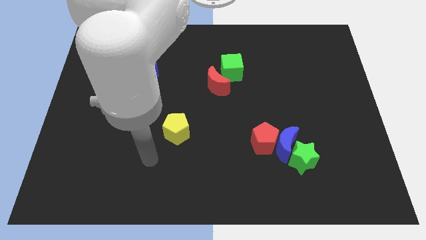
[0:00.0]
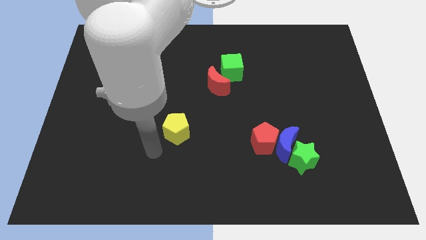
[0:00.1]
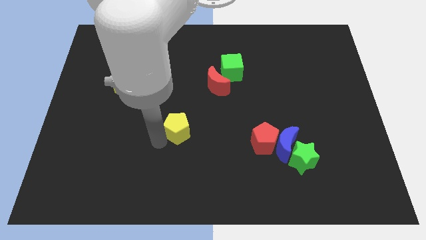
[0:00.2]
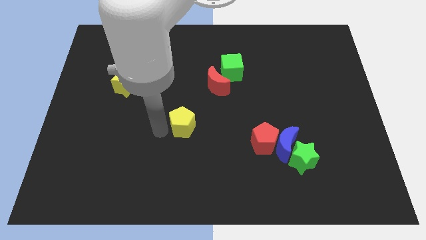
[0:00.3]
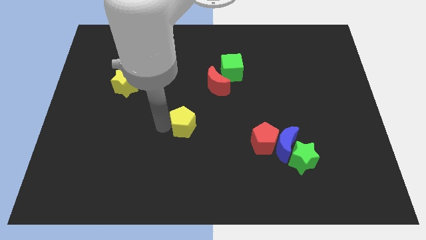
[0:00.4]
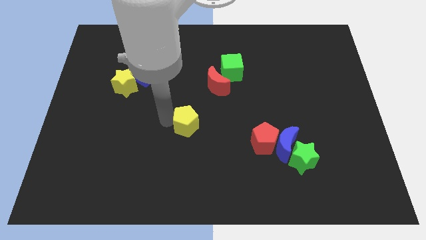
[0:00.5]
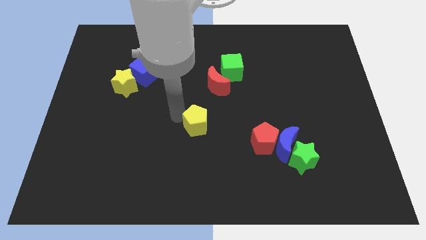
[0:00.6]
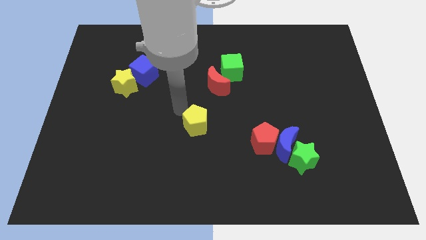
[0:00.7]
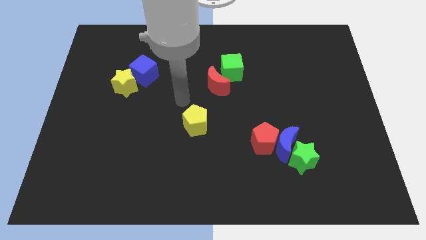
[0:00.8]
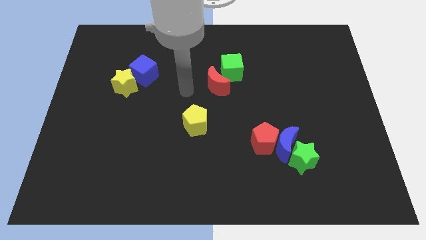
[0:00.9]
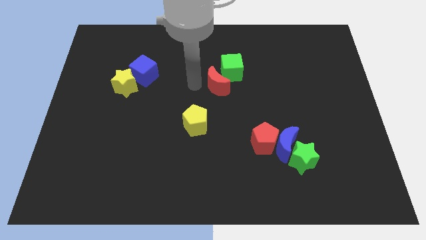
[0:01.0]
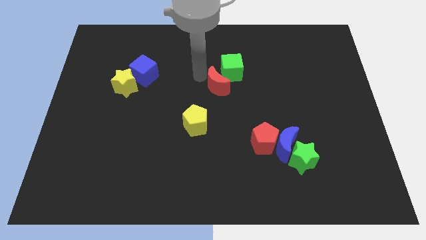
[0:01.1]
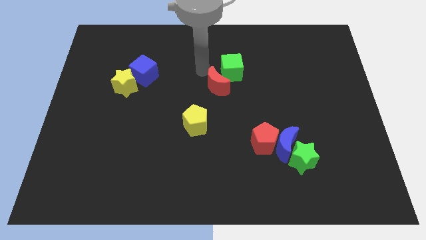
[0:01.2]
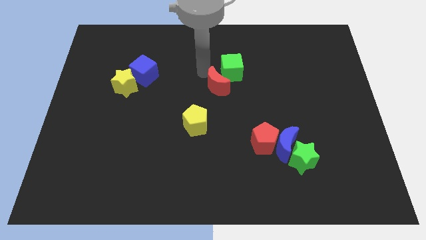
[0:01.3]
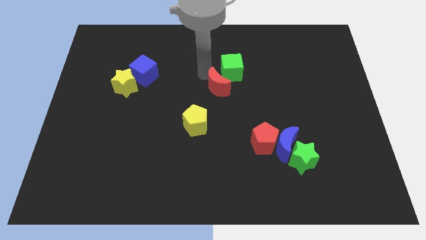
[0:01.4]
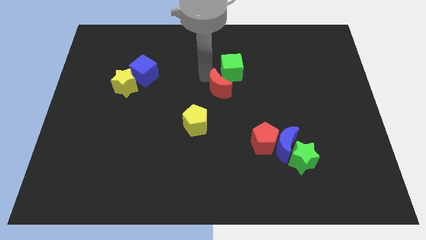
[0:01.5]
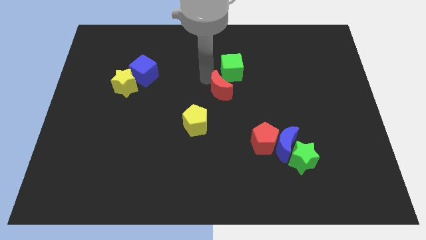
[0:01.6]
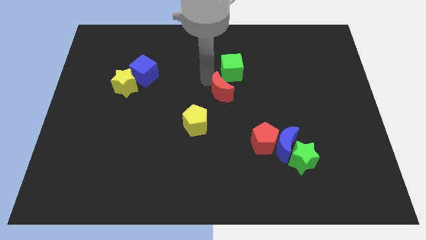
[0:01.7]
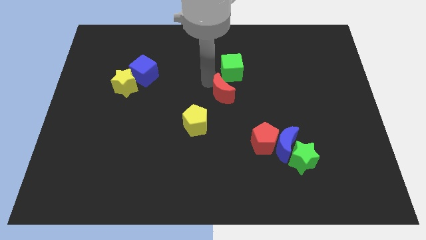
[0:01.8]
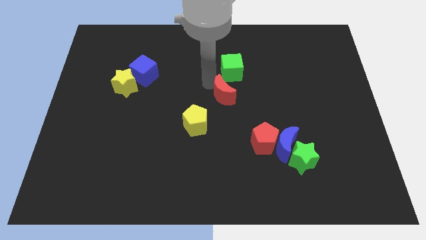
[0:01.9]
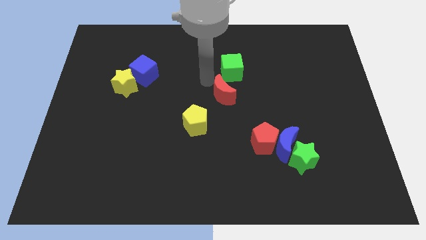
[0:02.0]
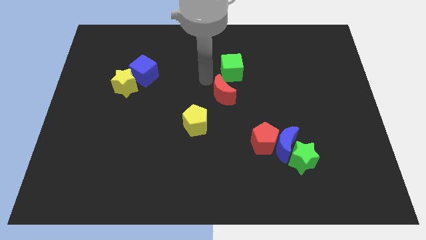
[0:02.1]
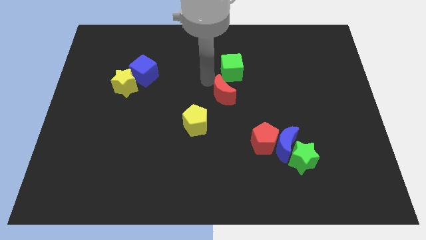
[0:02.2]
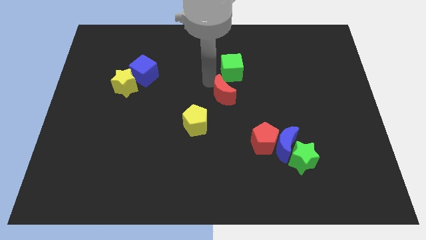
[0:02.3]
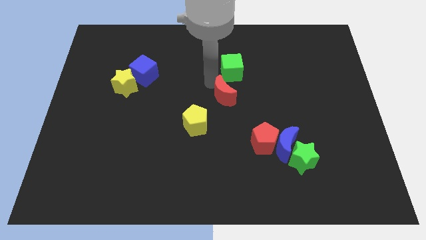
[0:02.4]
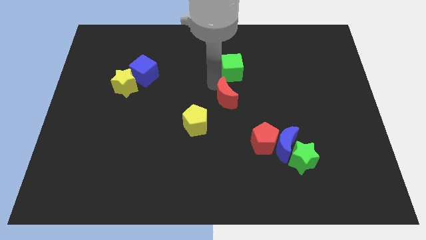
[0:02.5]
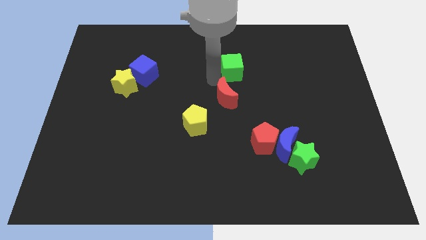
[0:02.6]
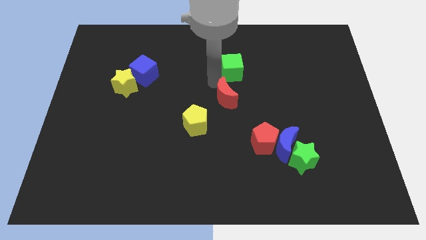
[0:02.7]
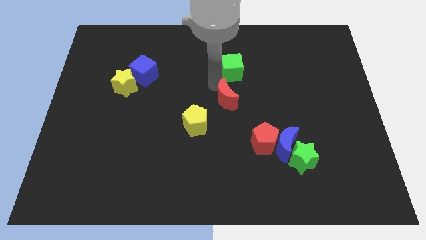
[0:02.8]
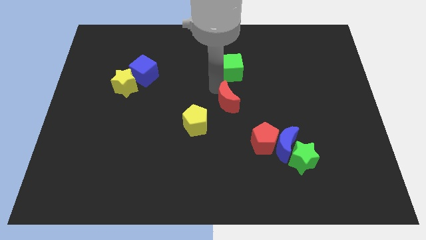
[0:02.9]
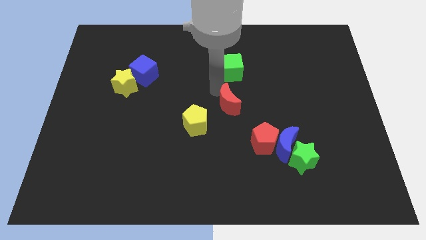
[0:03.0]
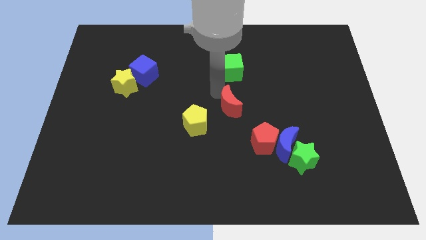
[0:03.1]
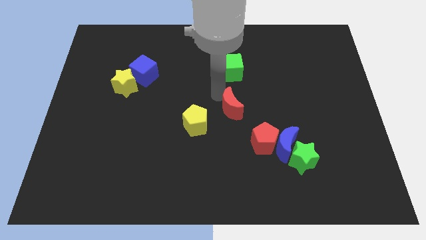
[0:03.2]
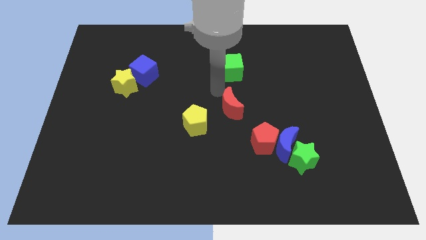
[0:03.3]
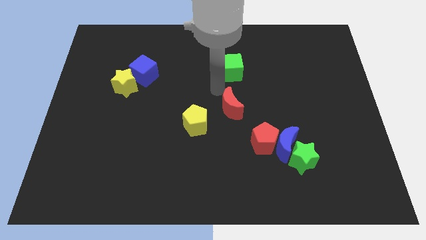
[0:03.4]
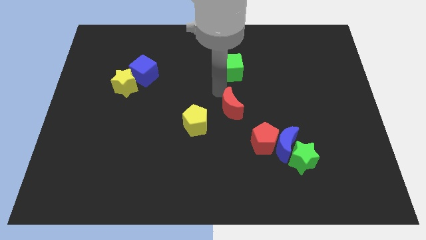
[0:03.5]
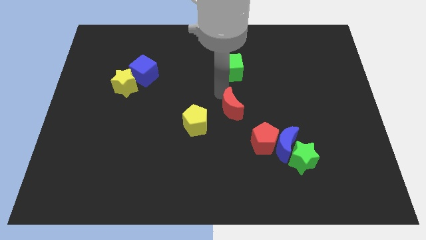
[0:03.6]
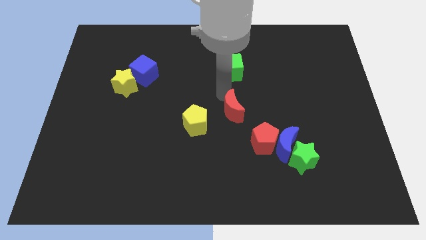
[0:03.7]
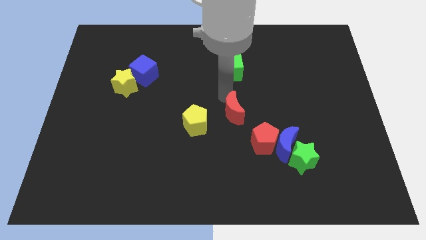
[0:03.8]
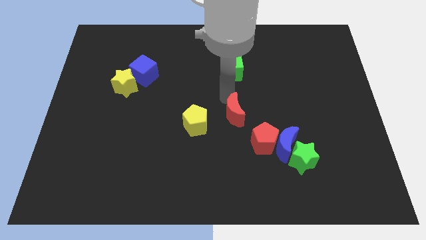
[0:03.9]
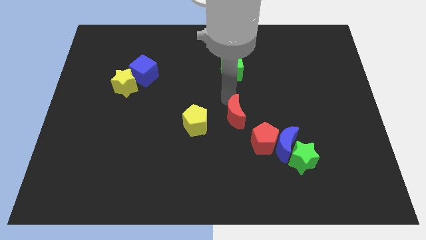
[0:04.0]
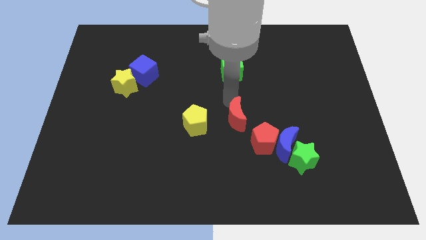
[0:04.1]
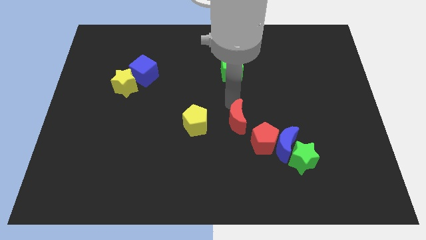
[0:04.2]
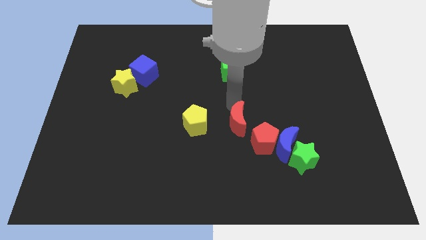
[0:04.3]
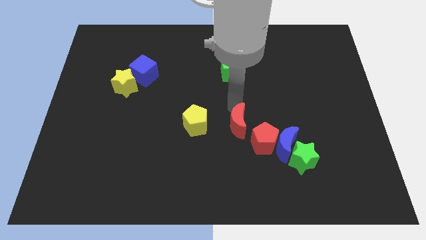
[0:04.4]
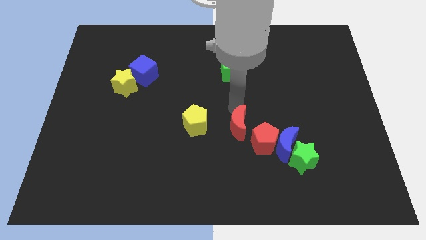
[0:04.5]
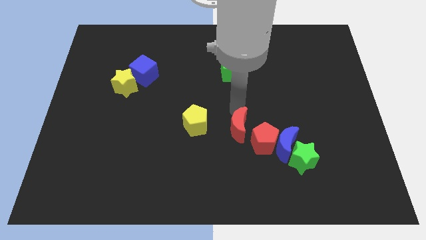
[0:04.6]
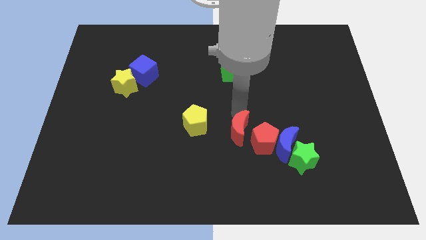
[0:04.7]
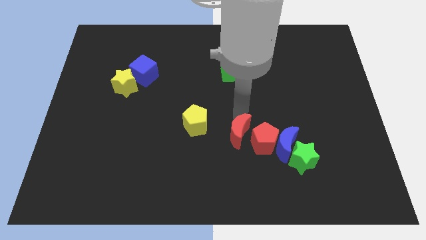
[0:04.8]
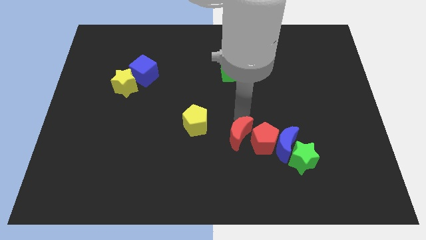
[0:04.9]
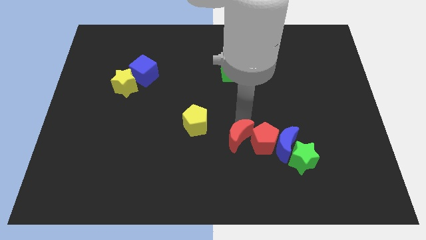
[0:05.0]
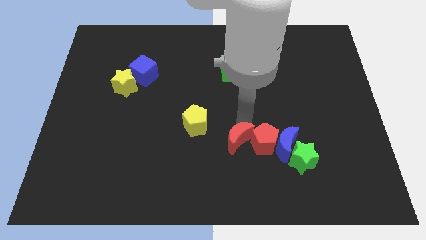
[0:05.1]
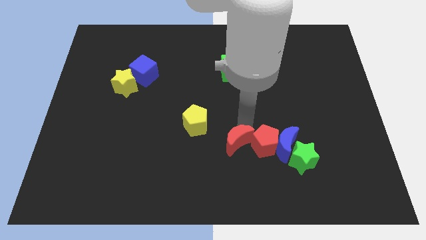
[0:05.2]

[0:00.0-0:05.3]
slide the red moon just left of the green star

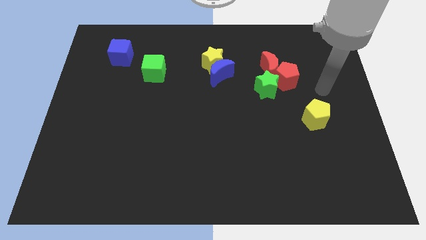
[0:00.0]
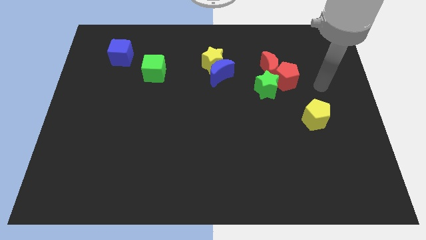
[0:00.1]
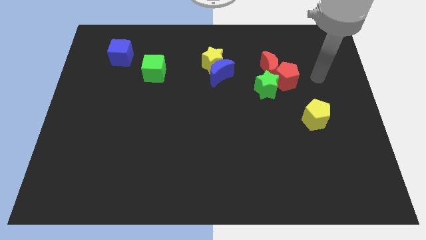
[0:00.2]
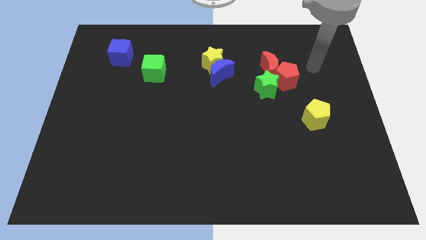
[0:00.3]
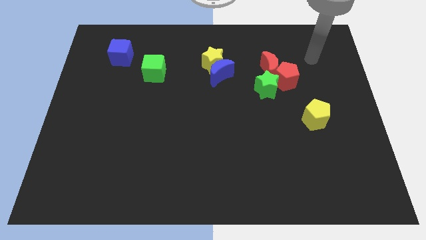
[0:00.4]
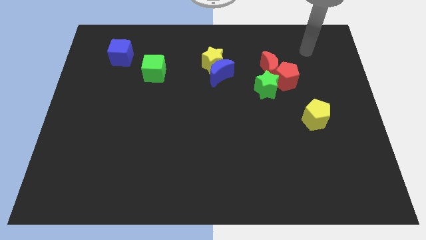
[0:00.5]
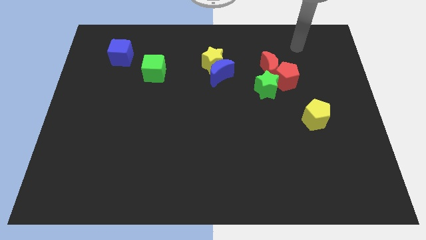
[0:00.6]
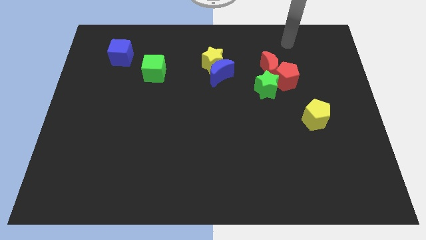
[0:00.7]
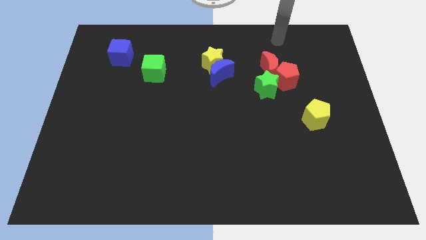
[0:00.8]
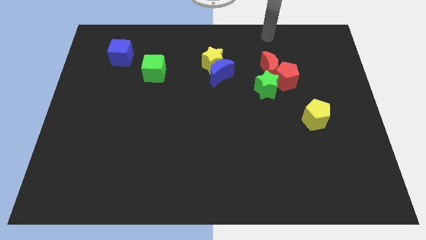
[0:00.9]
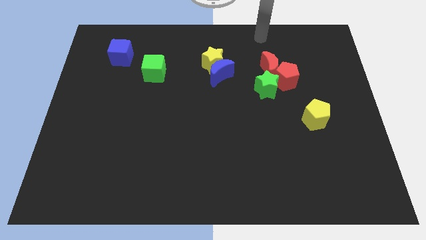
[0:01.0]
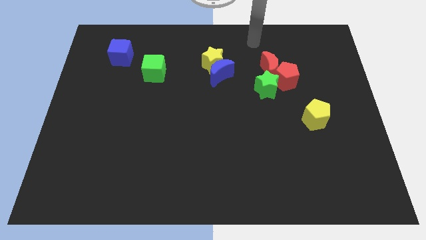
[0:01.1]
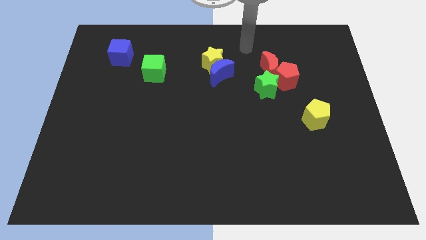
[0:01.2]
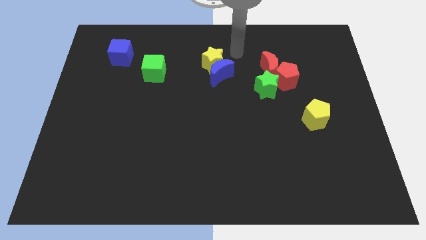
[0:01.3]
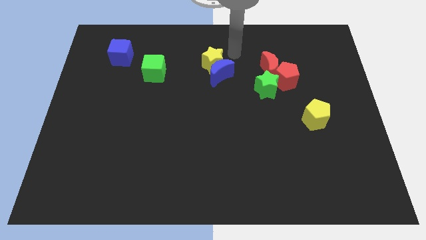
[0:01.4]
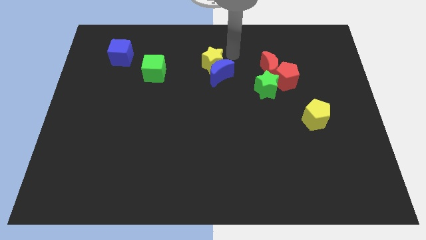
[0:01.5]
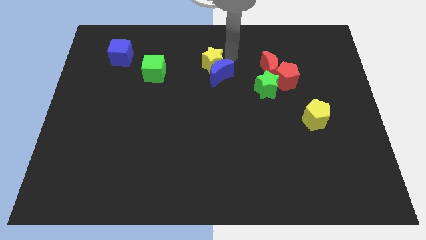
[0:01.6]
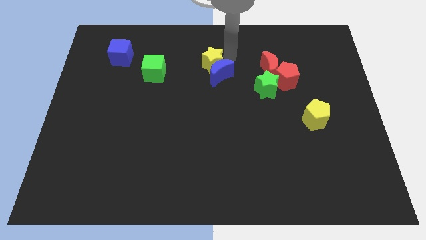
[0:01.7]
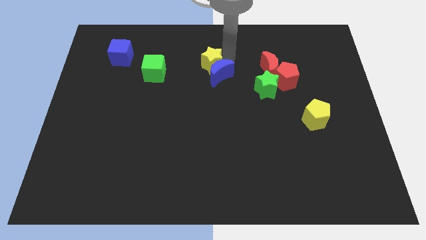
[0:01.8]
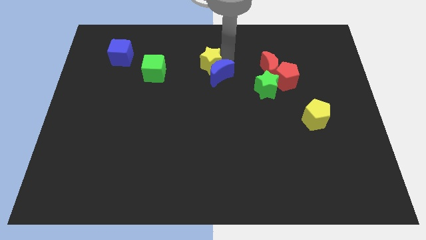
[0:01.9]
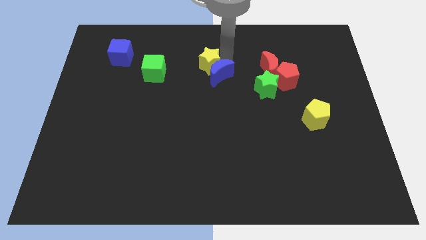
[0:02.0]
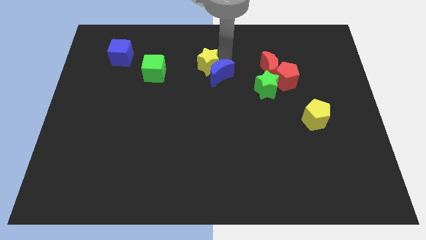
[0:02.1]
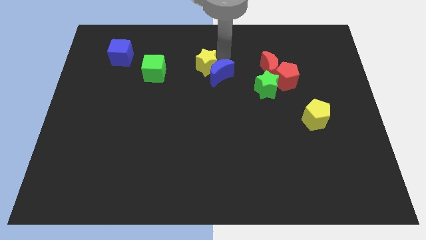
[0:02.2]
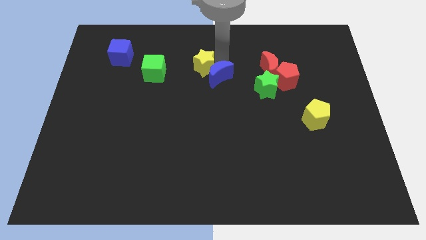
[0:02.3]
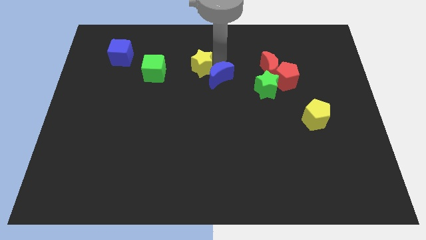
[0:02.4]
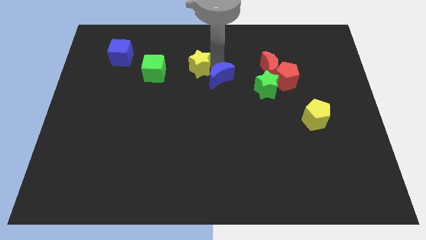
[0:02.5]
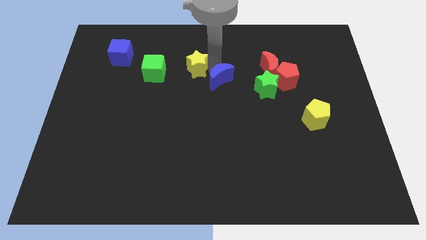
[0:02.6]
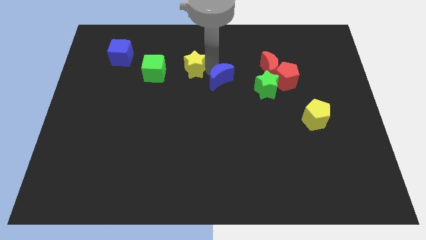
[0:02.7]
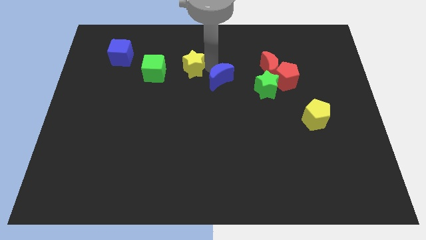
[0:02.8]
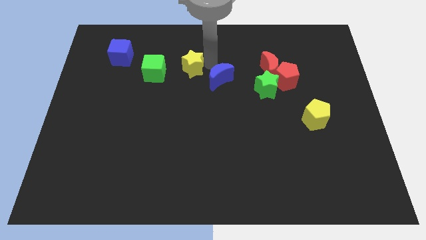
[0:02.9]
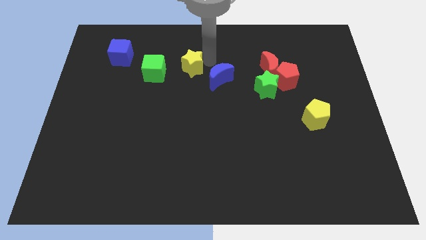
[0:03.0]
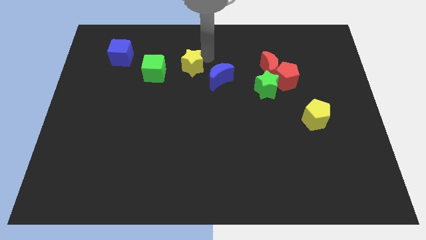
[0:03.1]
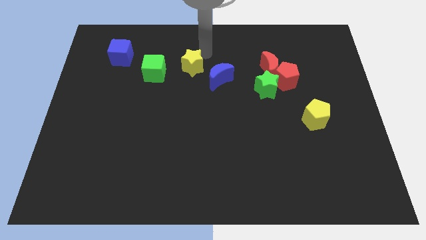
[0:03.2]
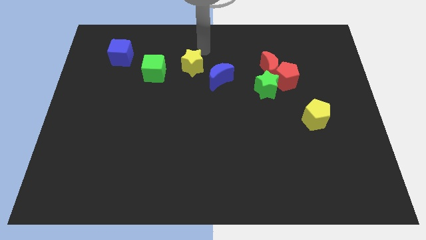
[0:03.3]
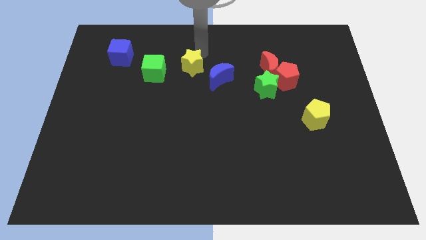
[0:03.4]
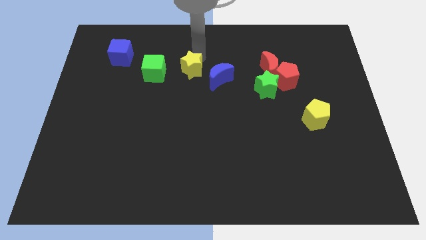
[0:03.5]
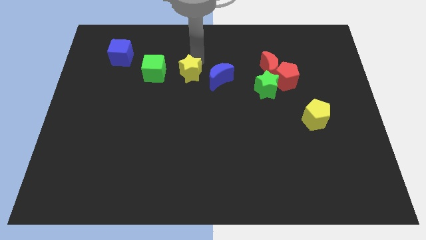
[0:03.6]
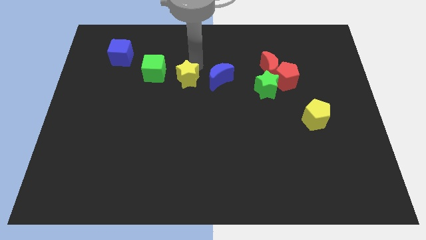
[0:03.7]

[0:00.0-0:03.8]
push the yellow star to the bottom right of the green cube
